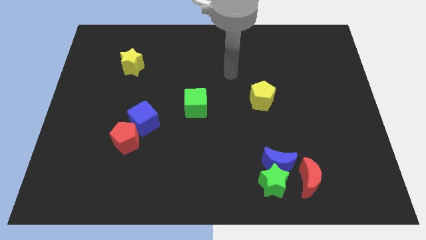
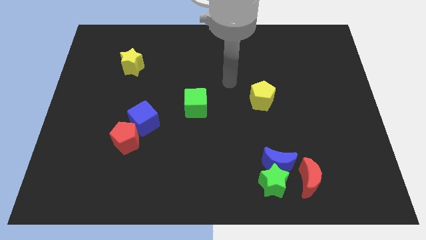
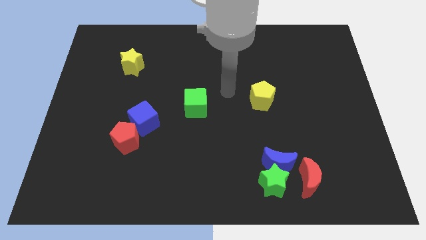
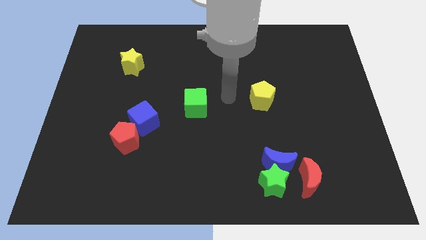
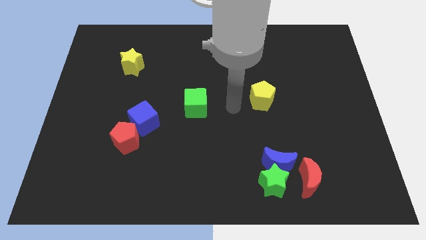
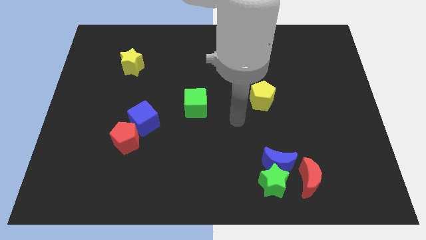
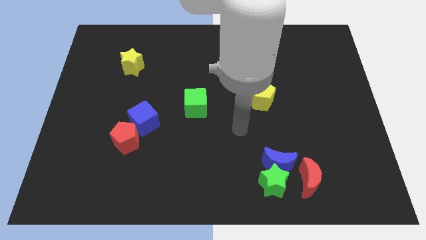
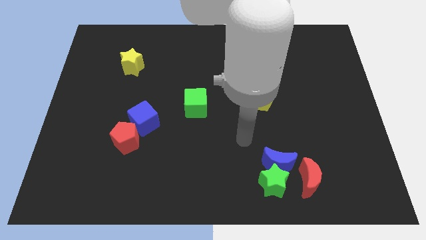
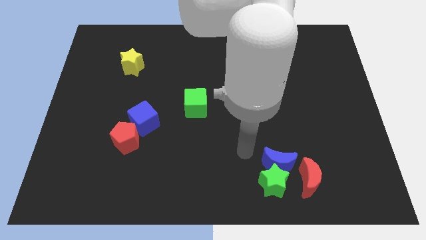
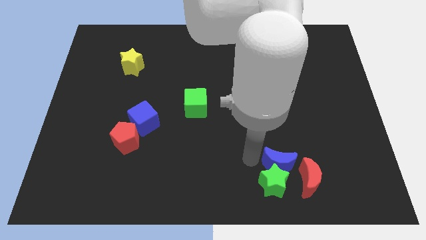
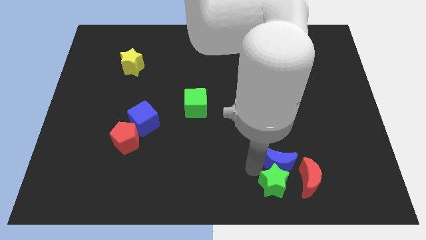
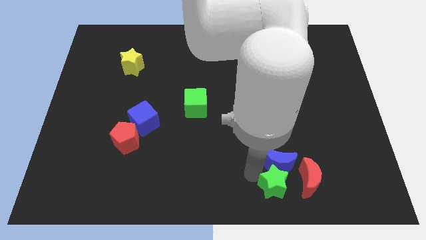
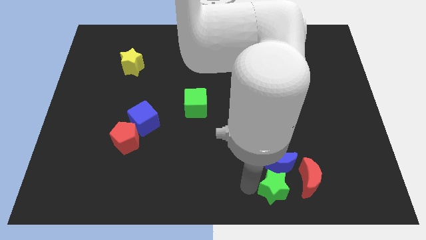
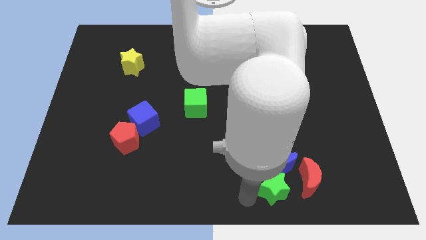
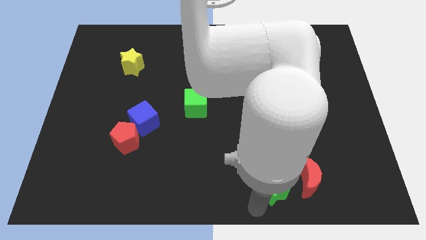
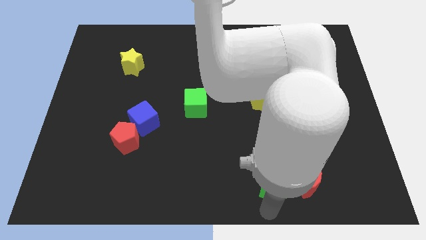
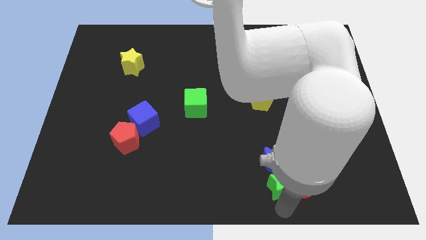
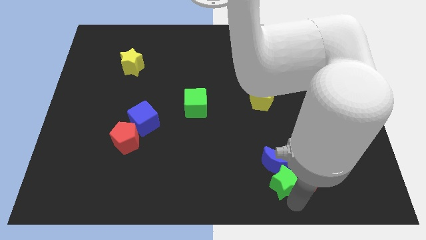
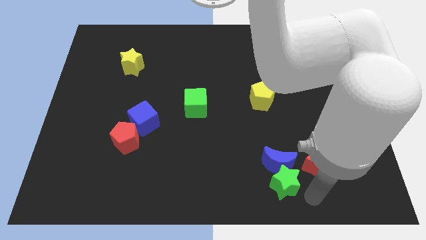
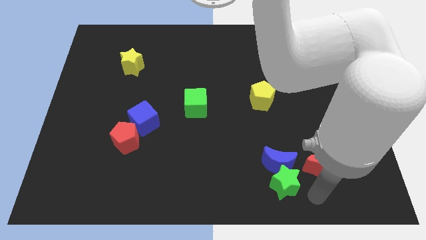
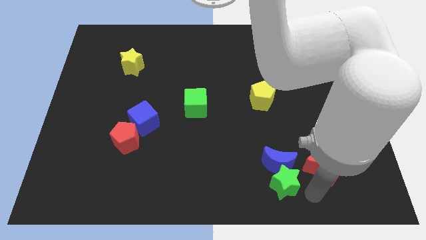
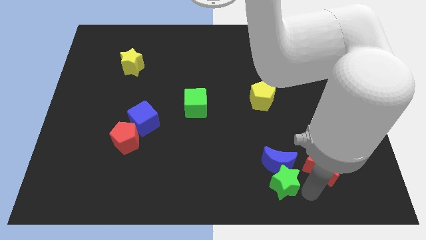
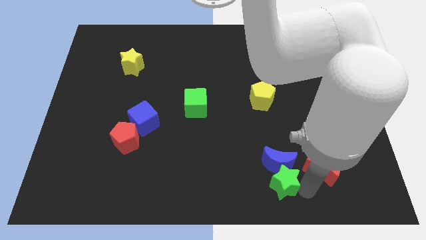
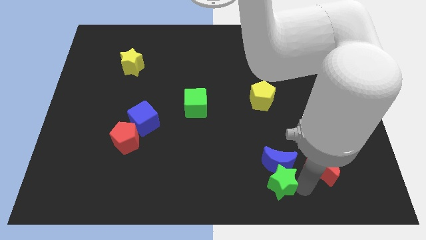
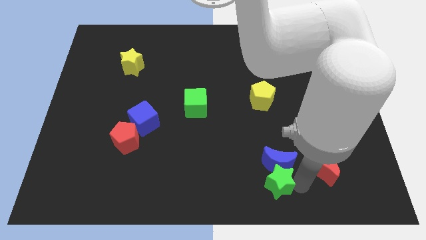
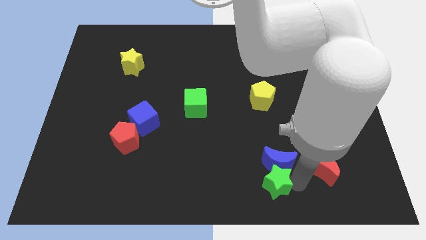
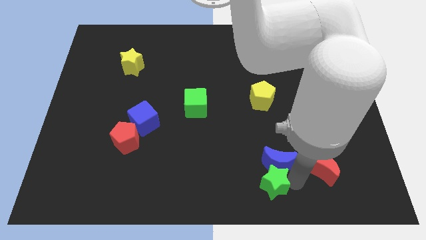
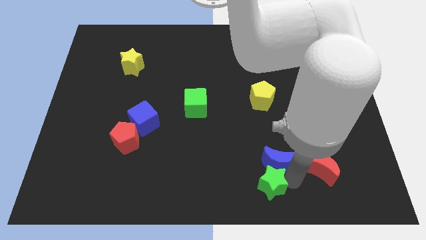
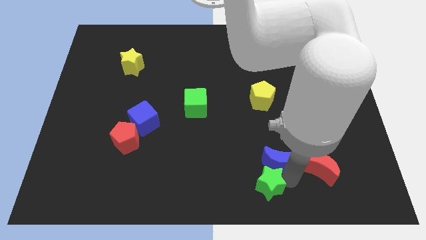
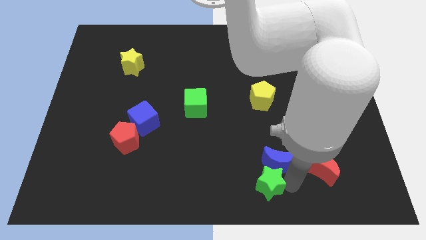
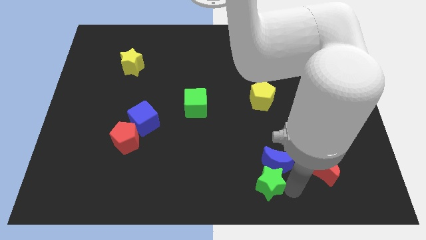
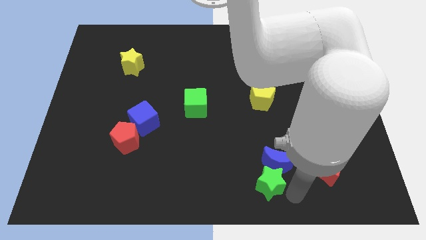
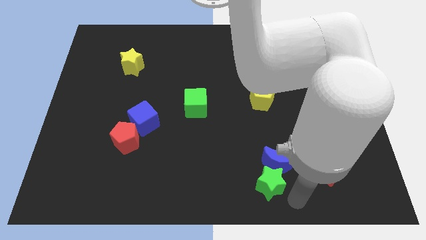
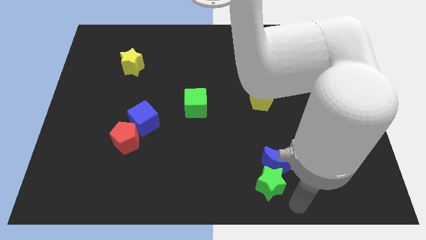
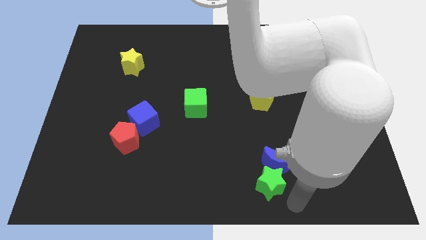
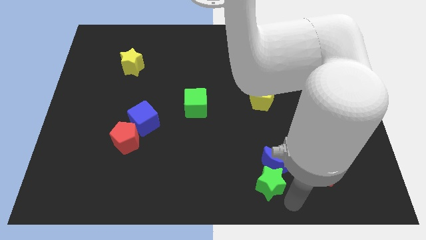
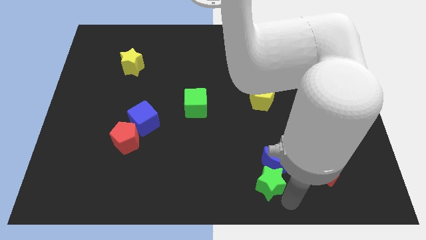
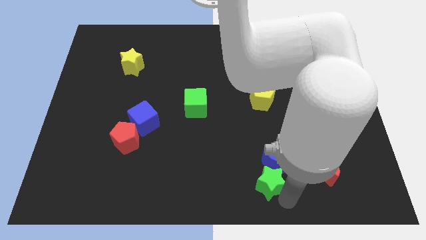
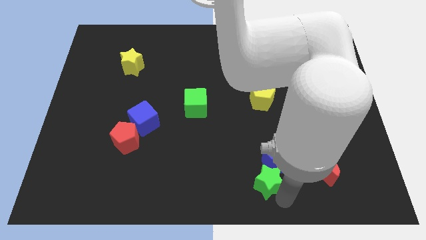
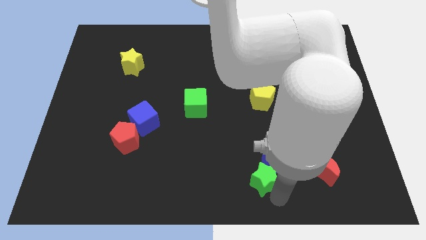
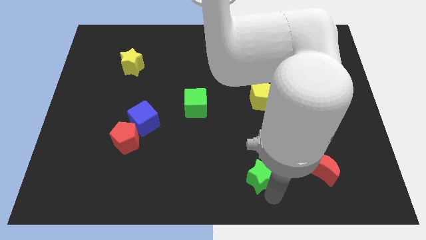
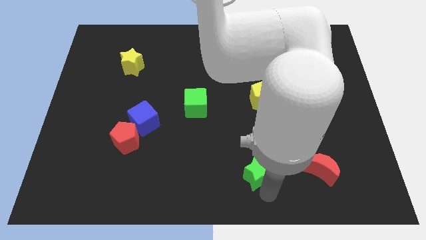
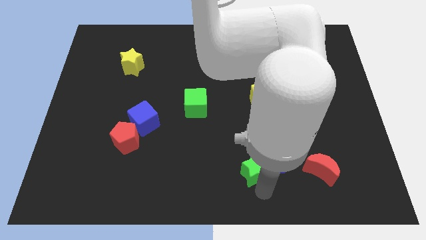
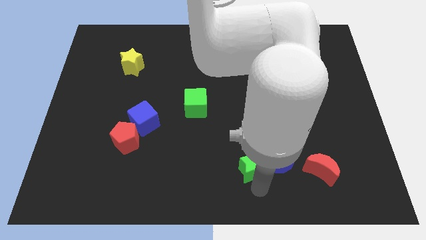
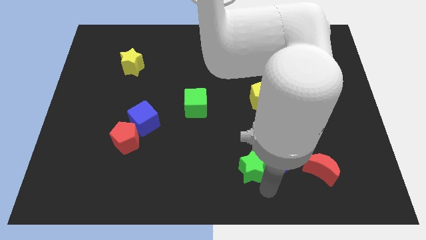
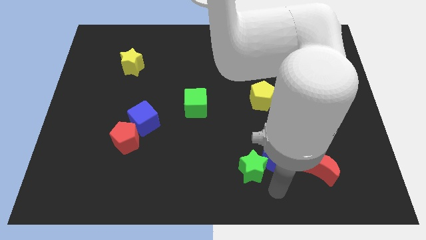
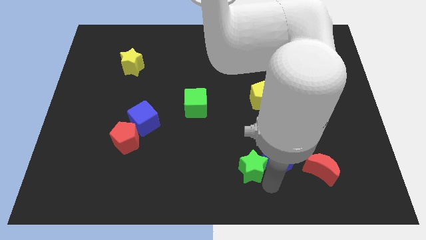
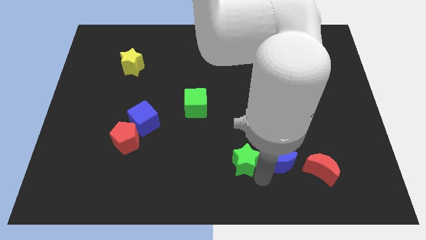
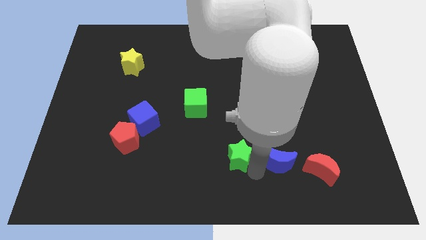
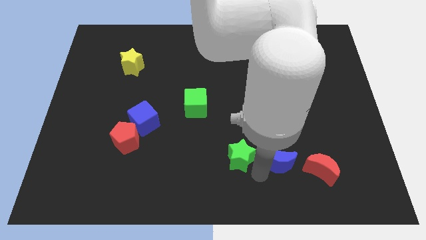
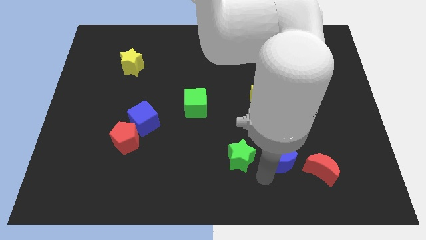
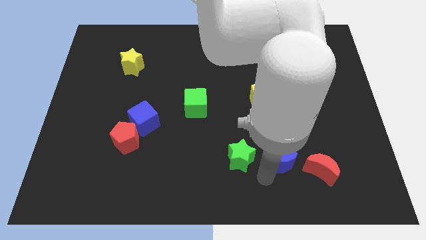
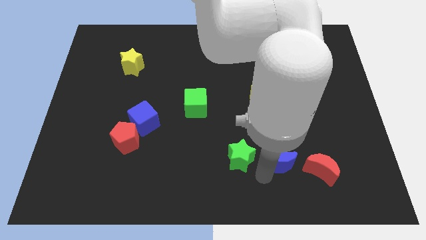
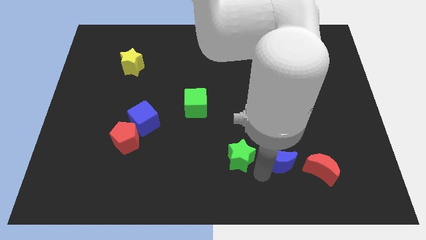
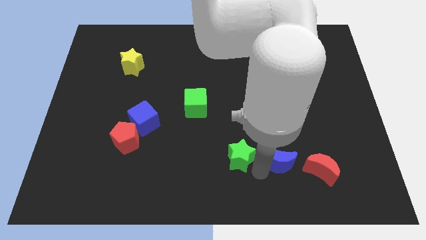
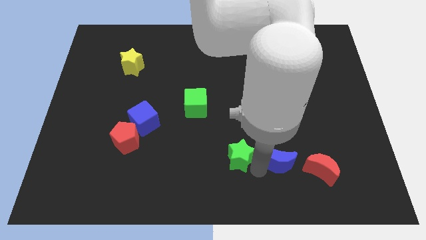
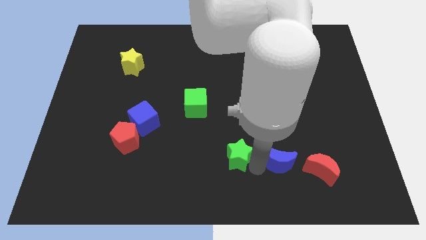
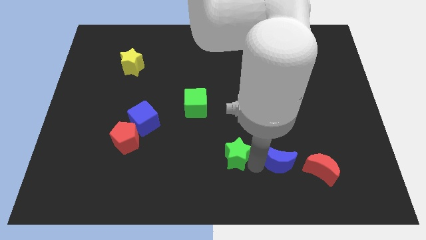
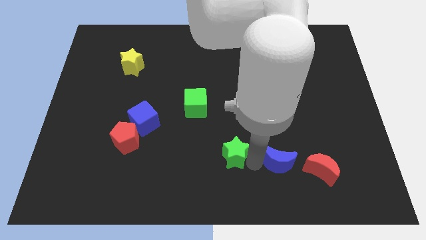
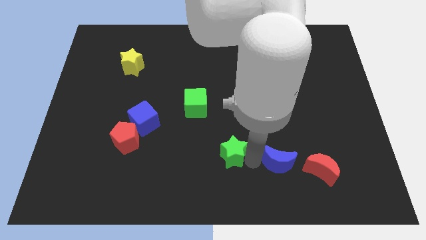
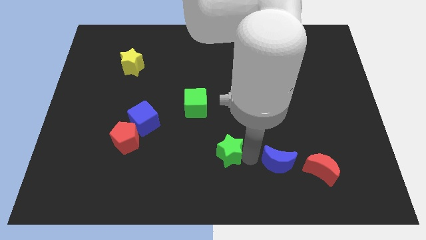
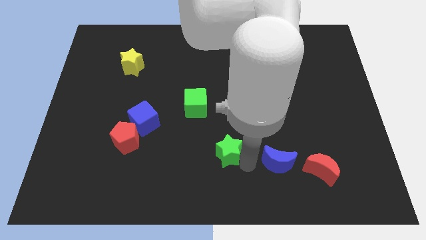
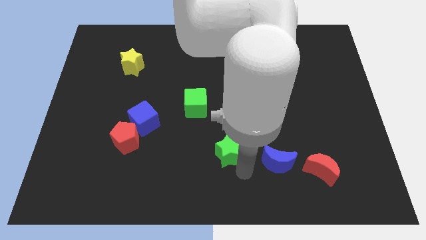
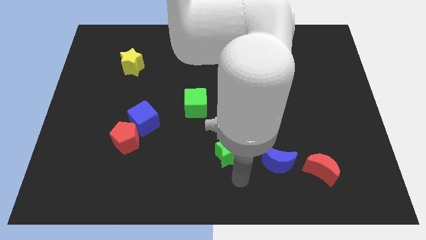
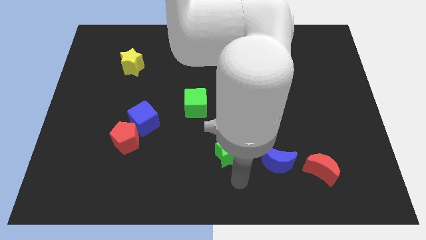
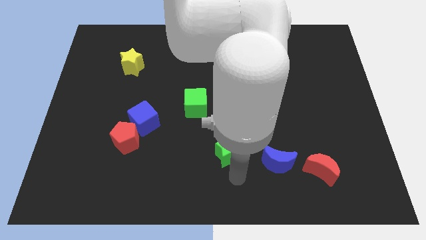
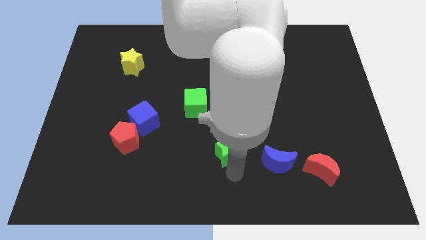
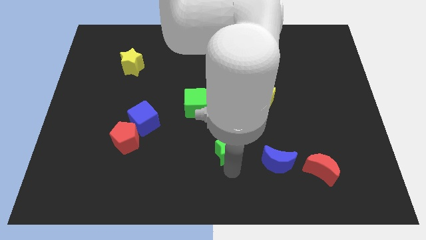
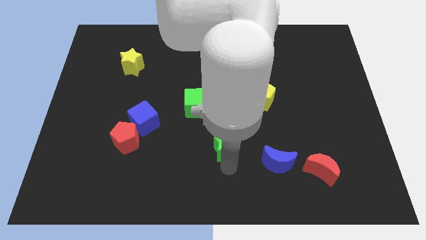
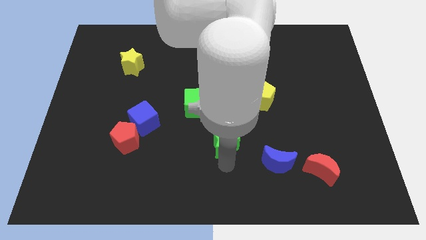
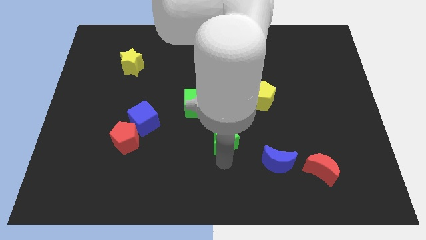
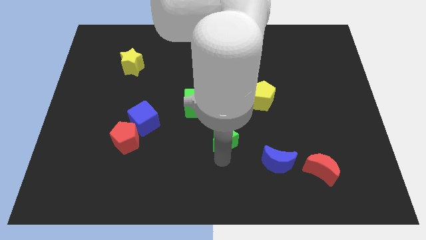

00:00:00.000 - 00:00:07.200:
put the green star to the bottom right of the green cube
